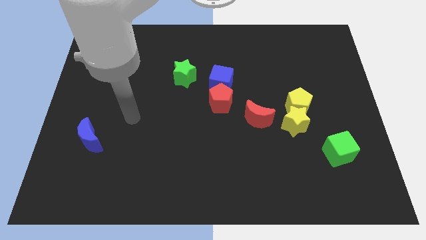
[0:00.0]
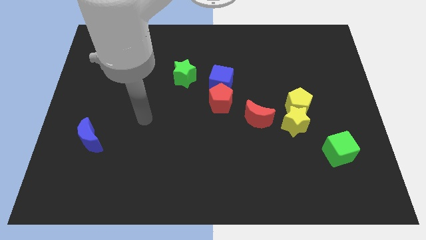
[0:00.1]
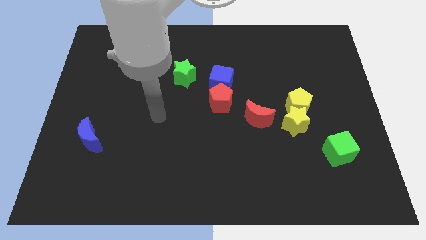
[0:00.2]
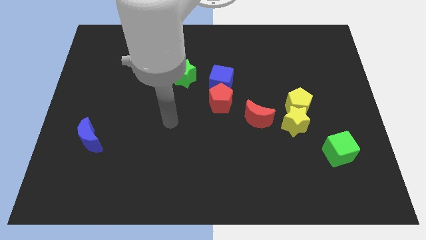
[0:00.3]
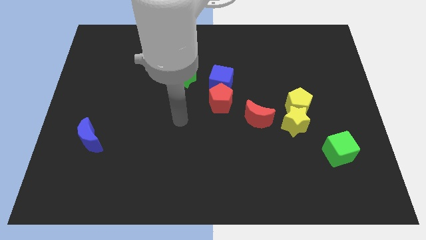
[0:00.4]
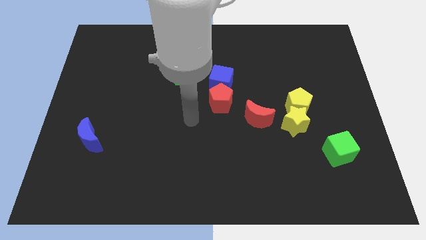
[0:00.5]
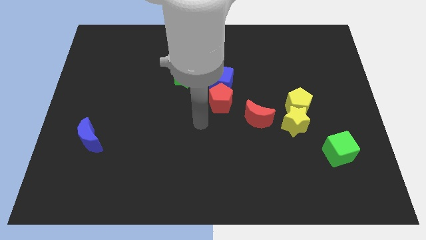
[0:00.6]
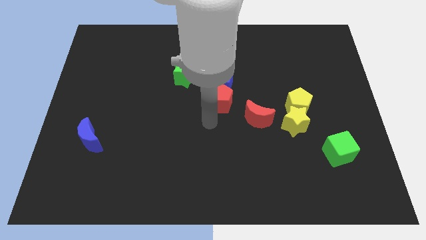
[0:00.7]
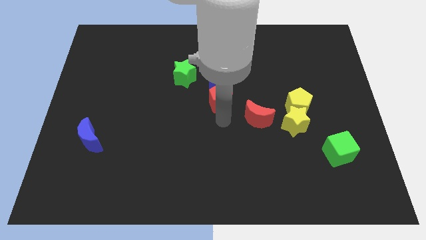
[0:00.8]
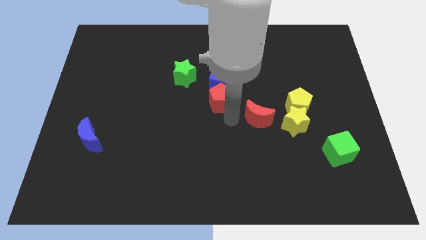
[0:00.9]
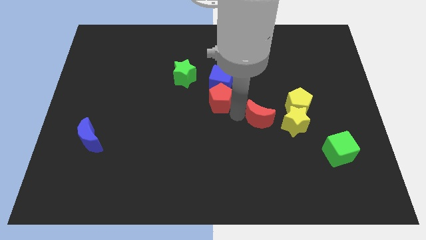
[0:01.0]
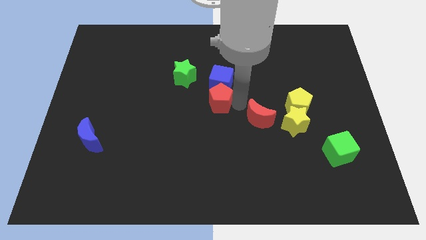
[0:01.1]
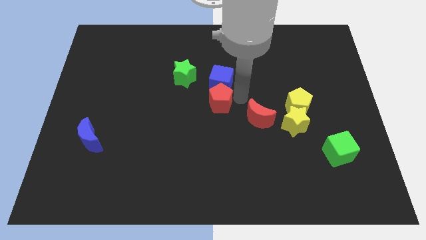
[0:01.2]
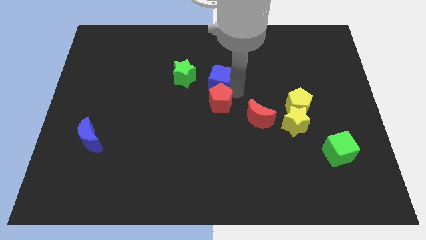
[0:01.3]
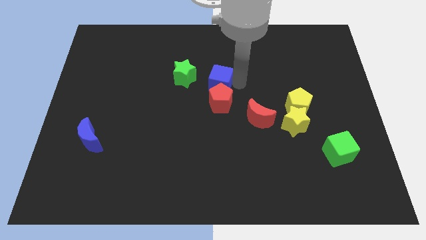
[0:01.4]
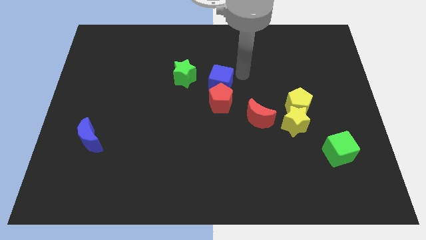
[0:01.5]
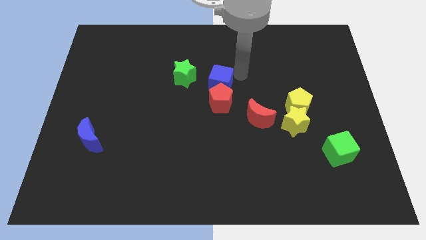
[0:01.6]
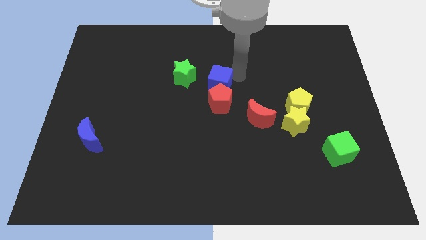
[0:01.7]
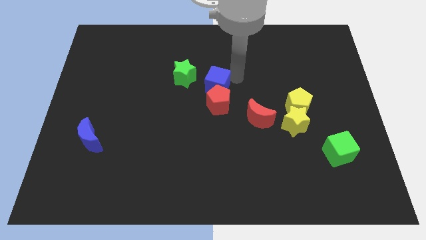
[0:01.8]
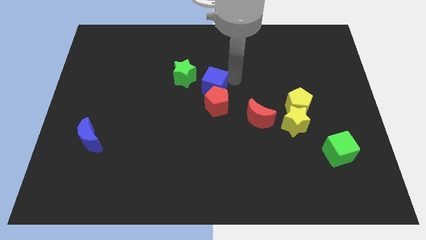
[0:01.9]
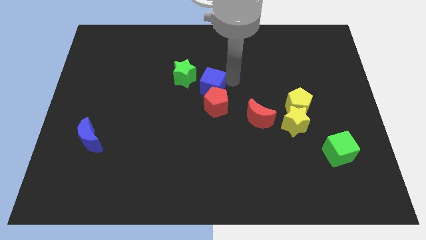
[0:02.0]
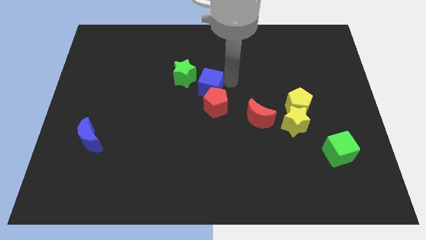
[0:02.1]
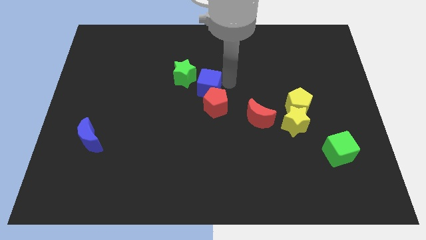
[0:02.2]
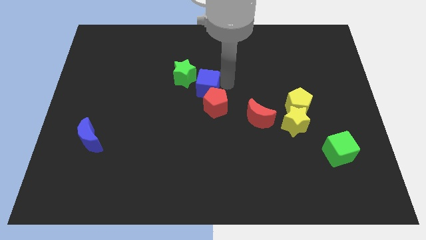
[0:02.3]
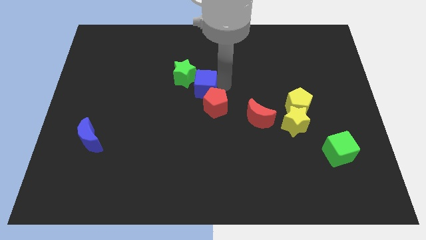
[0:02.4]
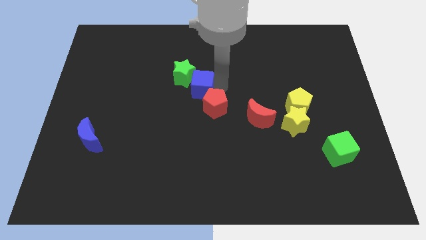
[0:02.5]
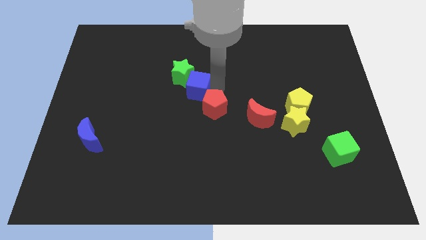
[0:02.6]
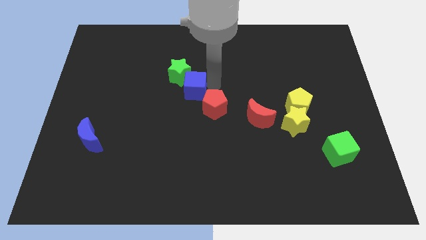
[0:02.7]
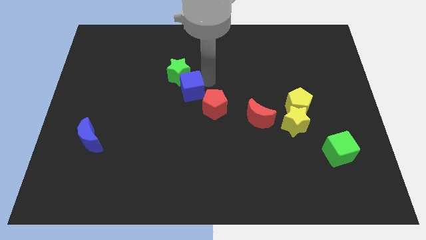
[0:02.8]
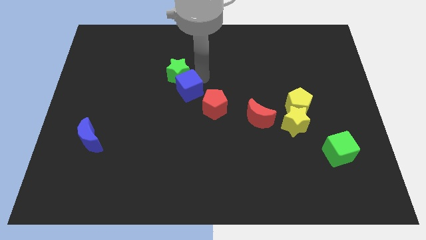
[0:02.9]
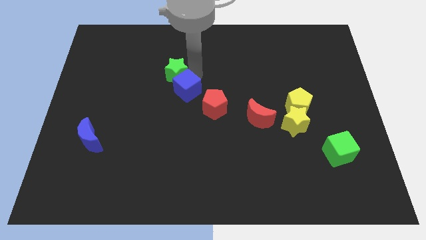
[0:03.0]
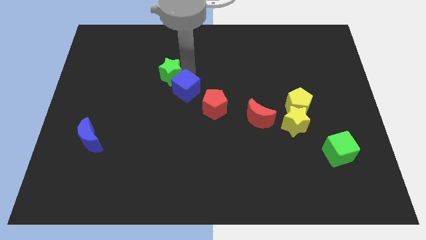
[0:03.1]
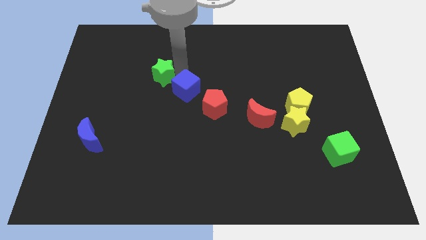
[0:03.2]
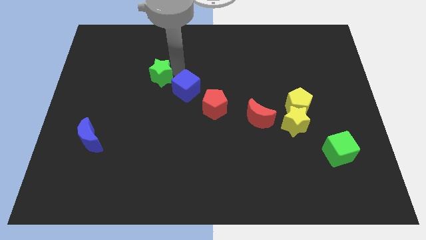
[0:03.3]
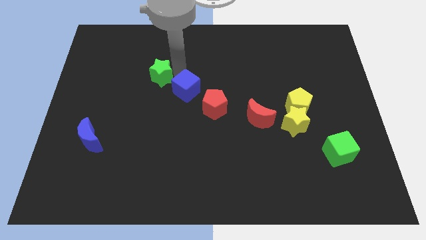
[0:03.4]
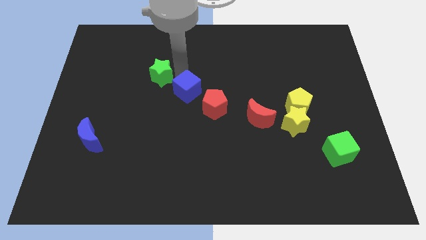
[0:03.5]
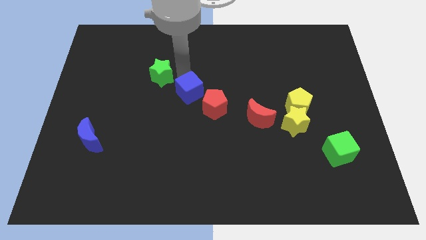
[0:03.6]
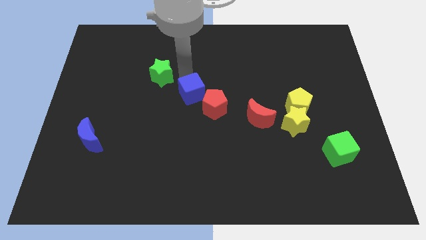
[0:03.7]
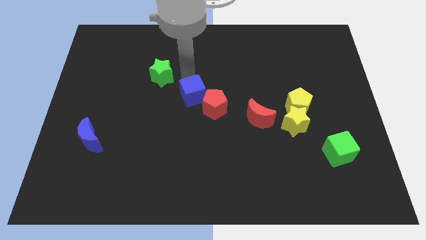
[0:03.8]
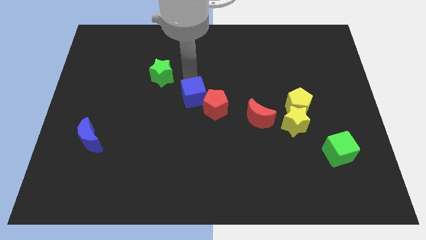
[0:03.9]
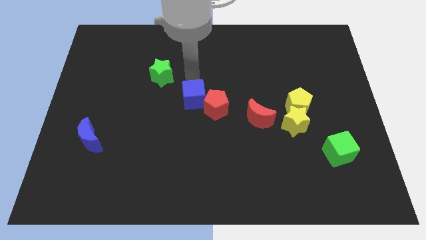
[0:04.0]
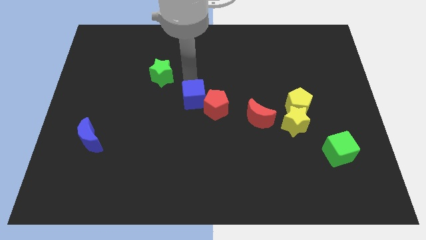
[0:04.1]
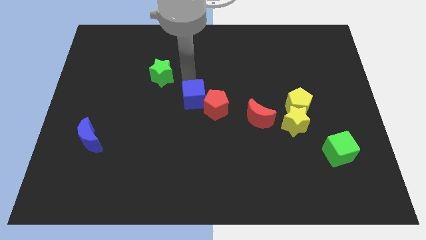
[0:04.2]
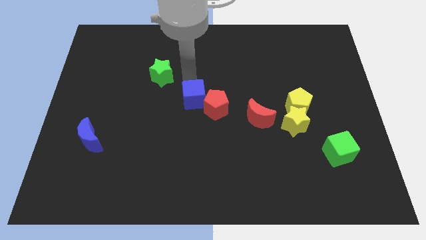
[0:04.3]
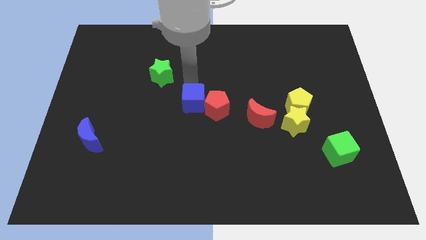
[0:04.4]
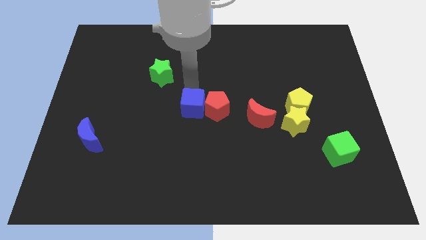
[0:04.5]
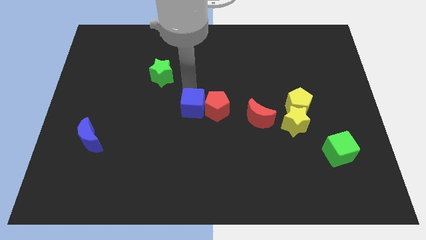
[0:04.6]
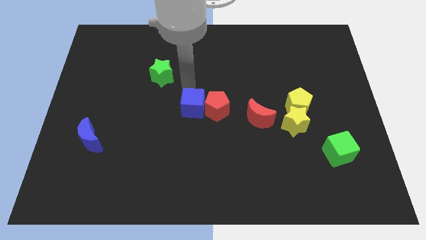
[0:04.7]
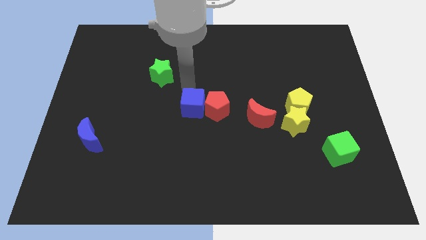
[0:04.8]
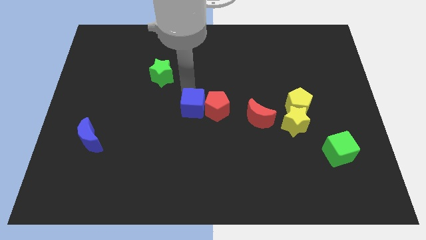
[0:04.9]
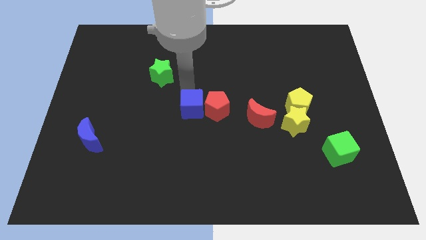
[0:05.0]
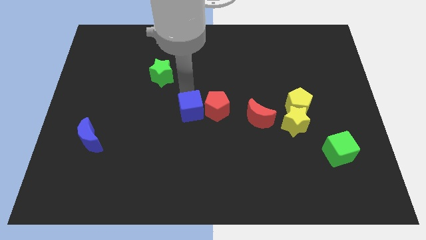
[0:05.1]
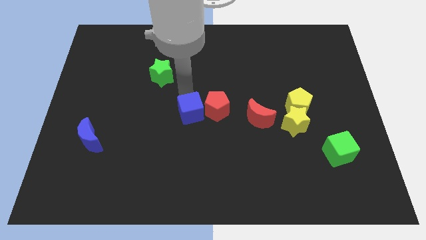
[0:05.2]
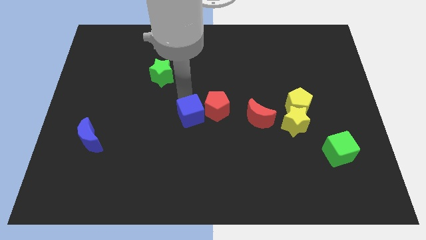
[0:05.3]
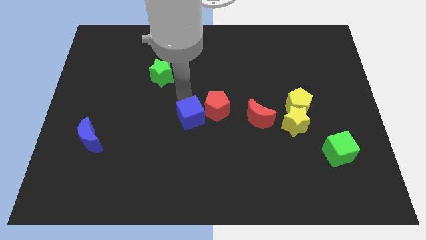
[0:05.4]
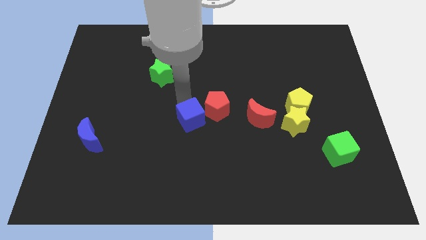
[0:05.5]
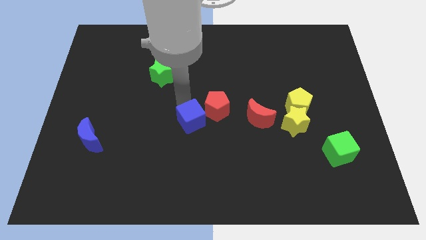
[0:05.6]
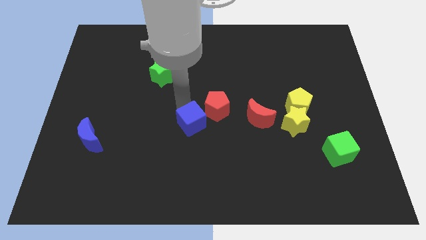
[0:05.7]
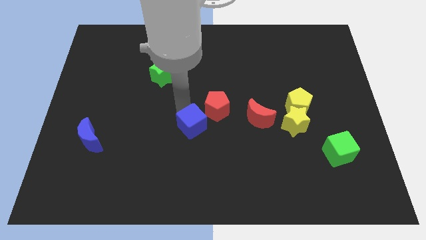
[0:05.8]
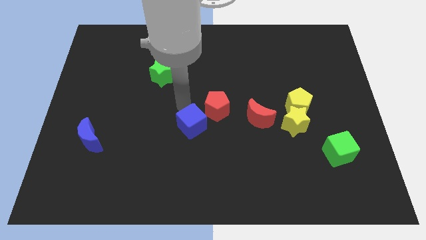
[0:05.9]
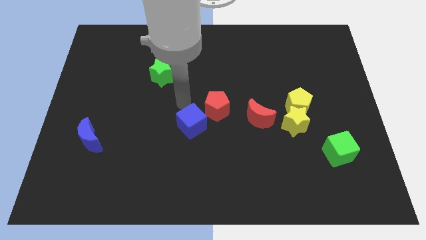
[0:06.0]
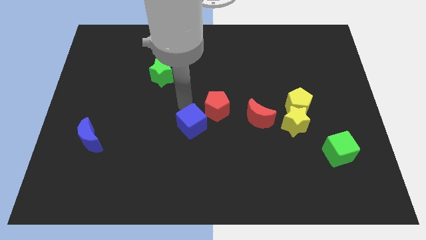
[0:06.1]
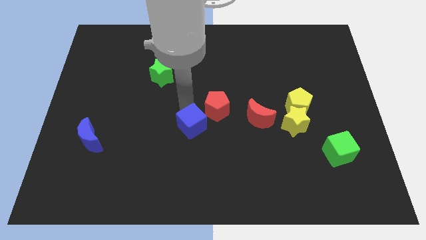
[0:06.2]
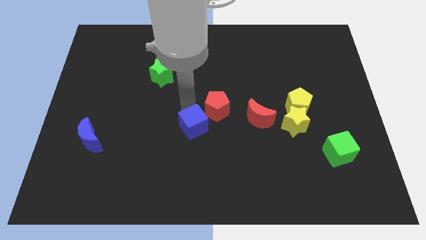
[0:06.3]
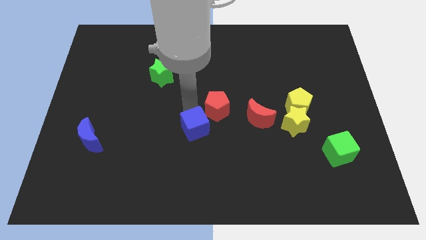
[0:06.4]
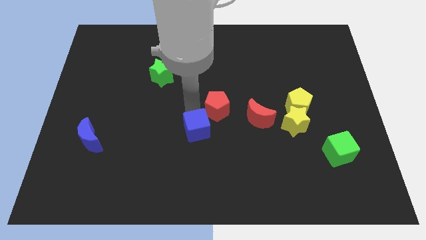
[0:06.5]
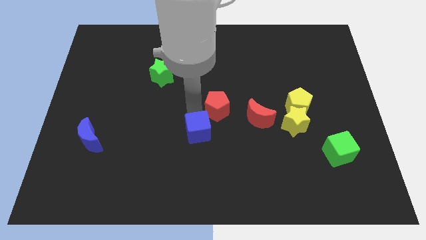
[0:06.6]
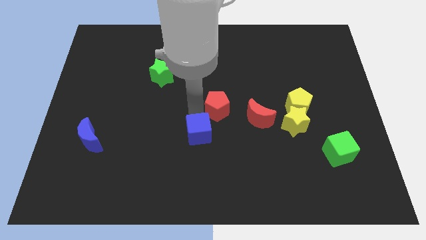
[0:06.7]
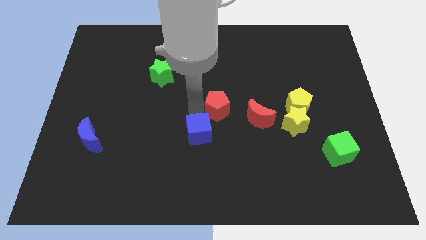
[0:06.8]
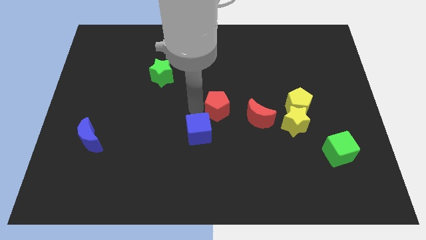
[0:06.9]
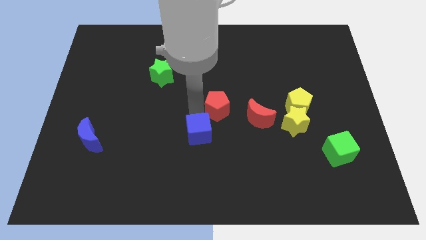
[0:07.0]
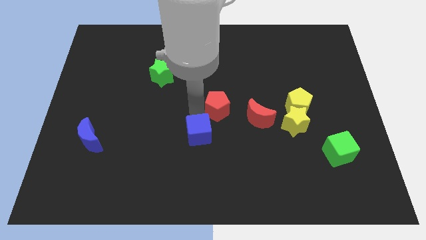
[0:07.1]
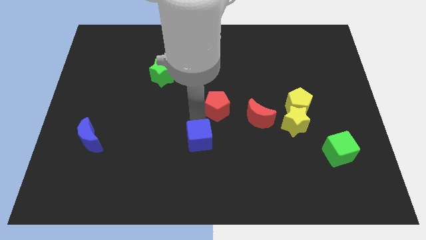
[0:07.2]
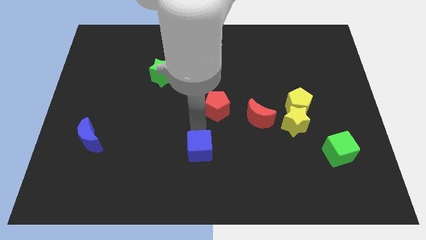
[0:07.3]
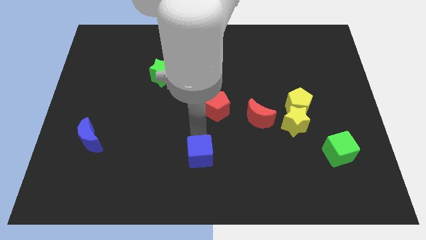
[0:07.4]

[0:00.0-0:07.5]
push the blue cube to the bottom
